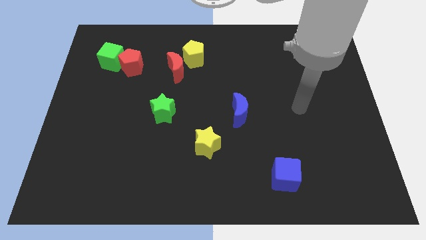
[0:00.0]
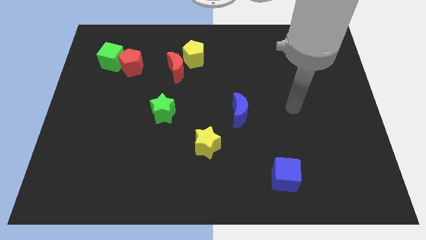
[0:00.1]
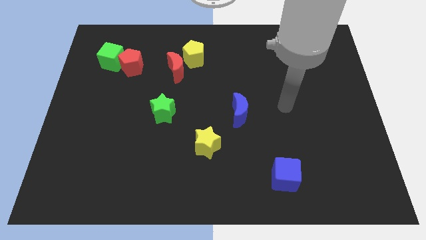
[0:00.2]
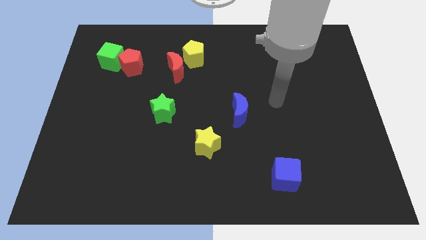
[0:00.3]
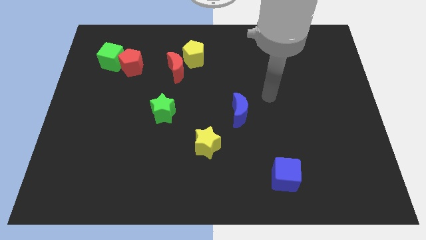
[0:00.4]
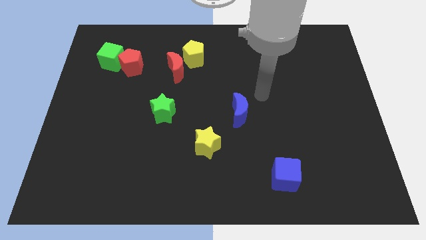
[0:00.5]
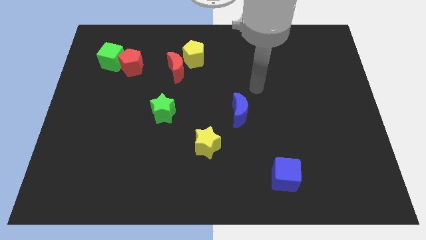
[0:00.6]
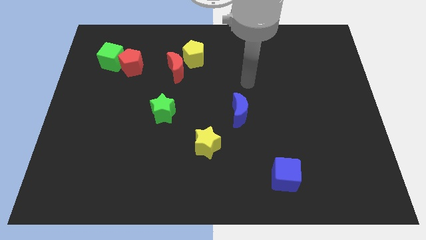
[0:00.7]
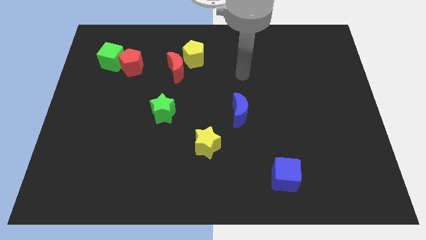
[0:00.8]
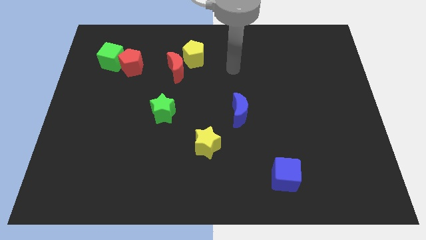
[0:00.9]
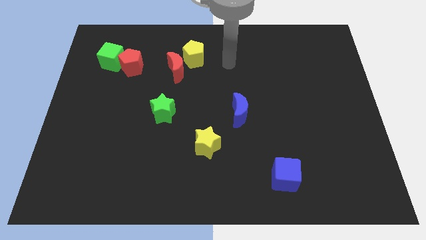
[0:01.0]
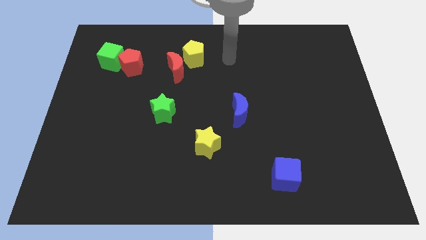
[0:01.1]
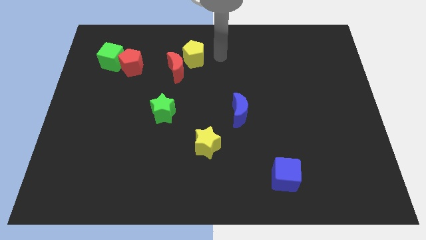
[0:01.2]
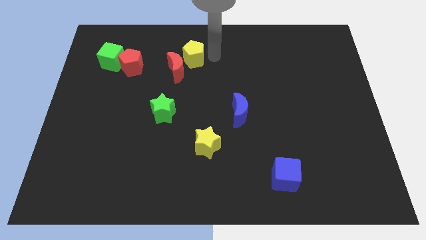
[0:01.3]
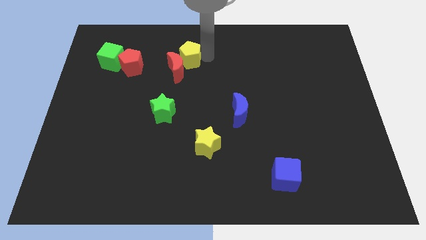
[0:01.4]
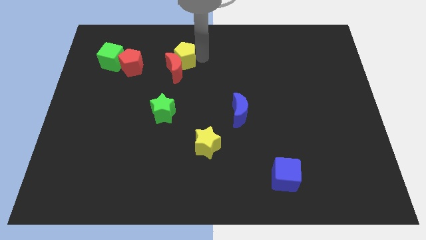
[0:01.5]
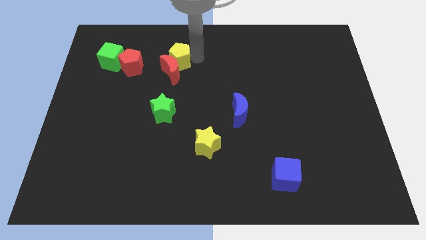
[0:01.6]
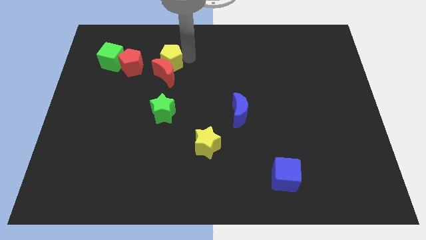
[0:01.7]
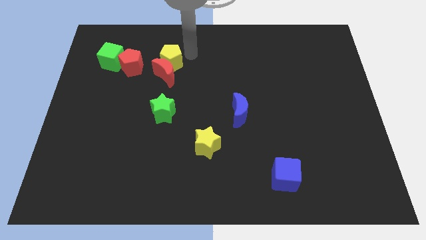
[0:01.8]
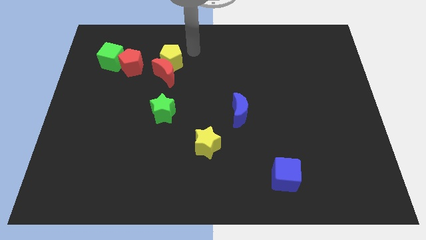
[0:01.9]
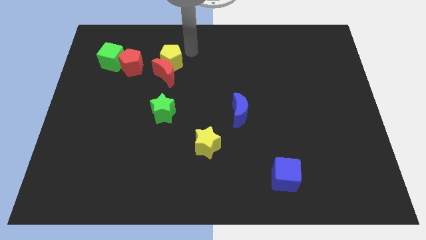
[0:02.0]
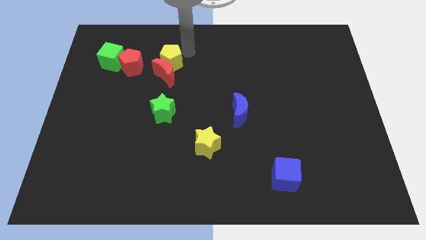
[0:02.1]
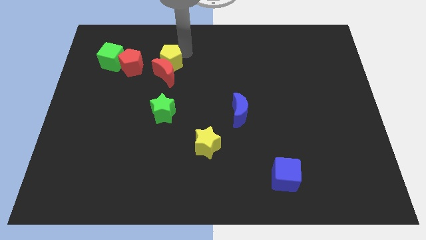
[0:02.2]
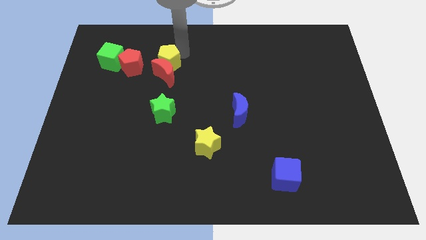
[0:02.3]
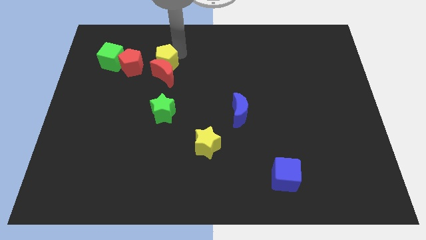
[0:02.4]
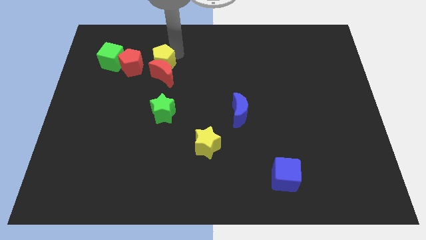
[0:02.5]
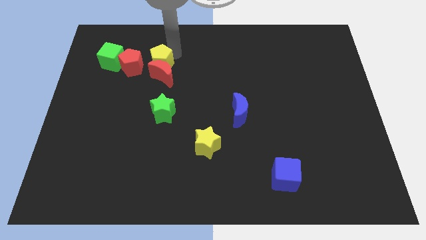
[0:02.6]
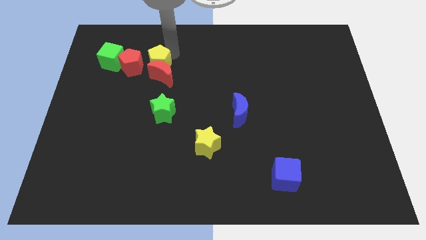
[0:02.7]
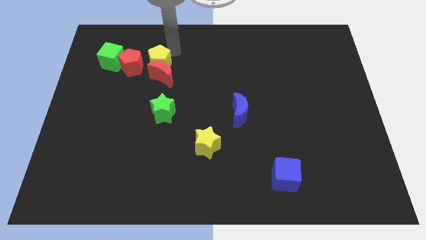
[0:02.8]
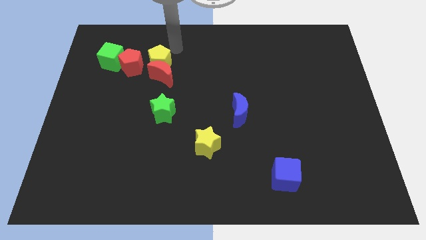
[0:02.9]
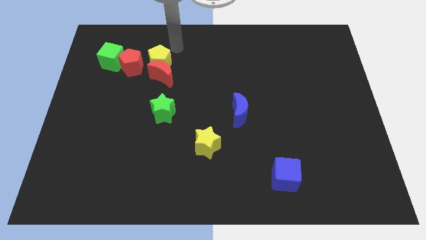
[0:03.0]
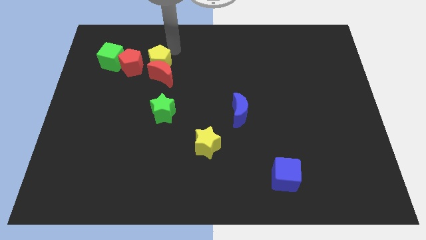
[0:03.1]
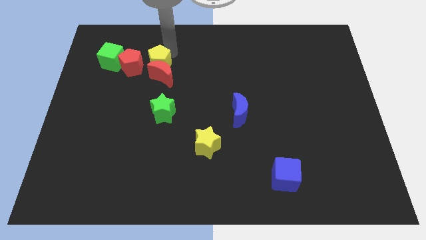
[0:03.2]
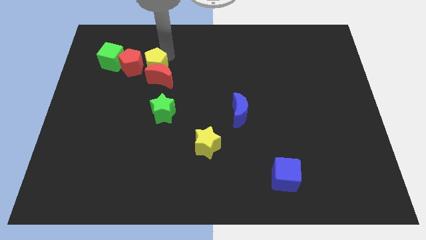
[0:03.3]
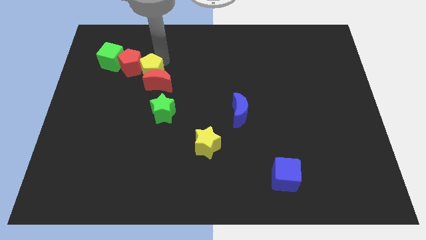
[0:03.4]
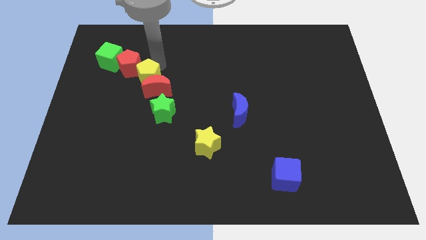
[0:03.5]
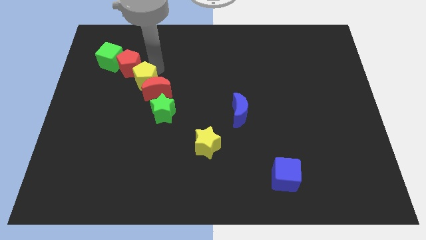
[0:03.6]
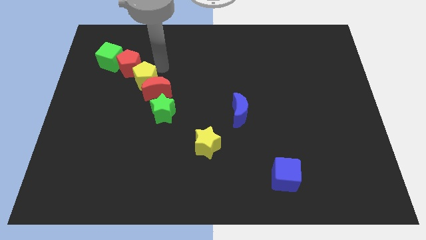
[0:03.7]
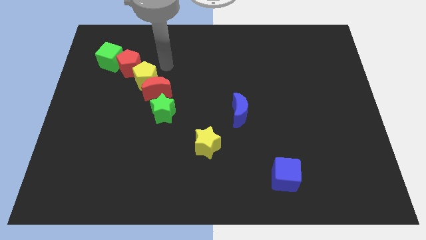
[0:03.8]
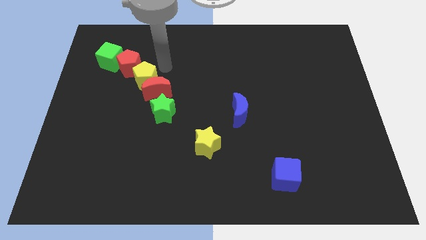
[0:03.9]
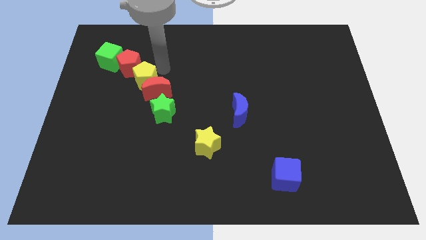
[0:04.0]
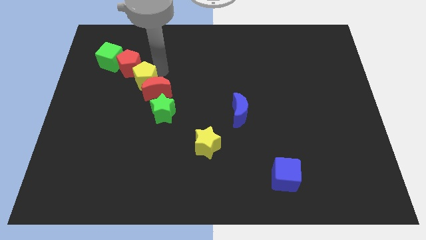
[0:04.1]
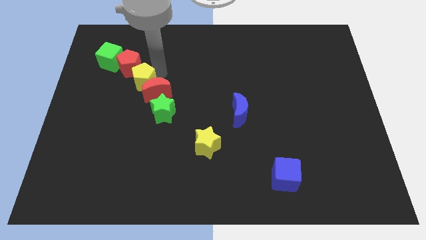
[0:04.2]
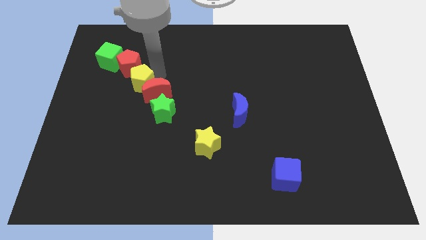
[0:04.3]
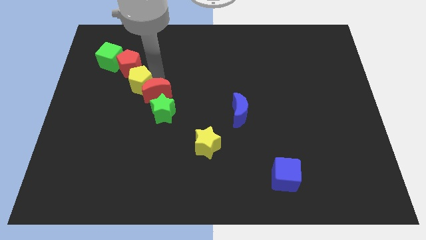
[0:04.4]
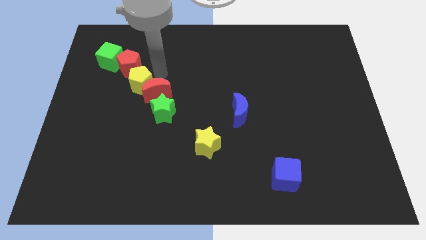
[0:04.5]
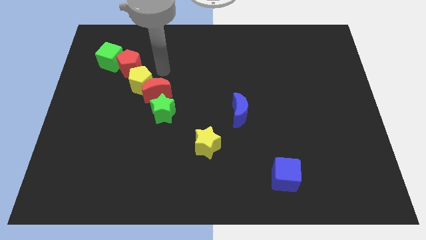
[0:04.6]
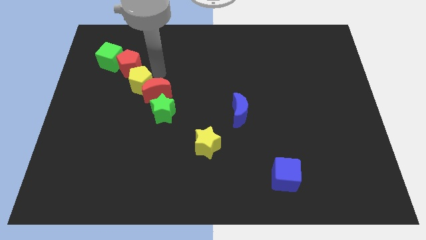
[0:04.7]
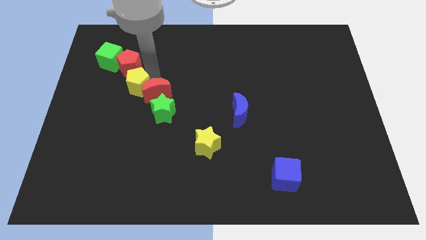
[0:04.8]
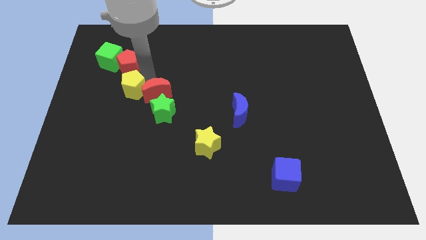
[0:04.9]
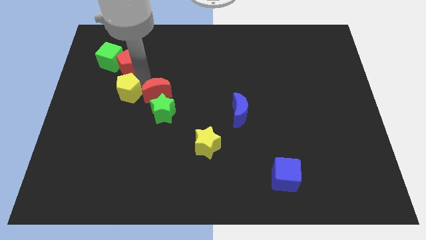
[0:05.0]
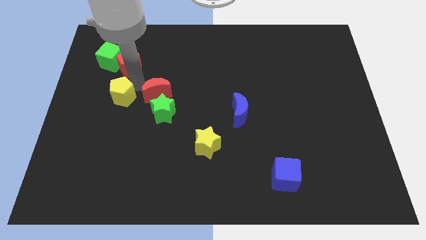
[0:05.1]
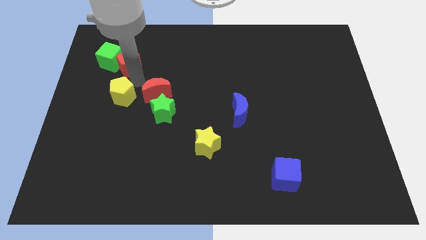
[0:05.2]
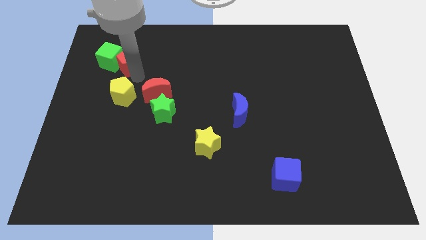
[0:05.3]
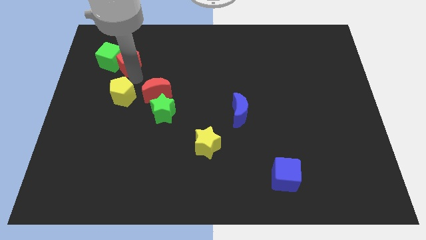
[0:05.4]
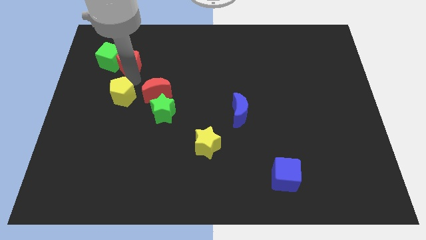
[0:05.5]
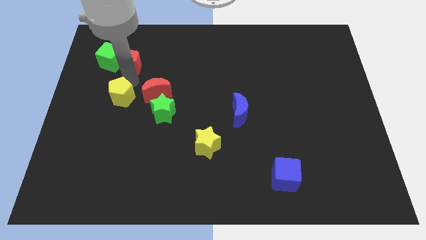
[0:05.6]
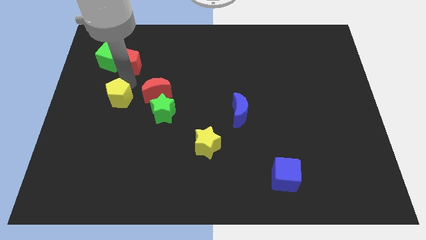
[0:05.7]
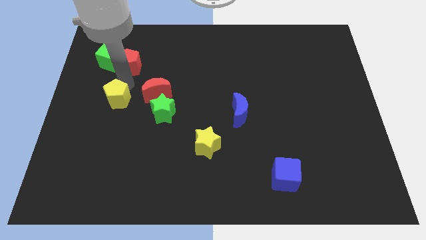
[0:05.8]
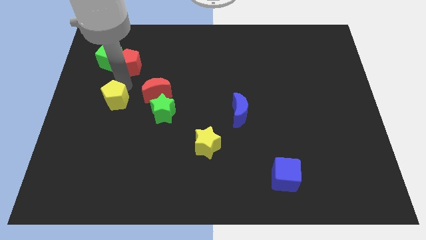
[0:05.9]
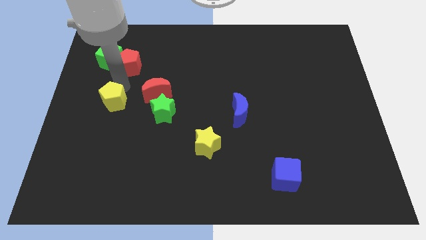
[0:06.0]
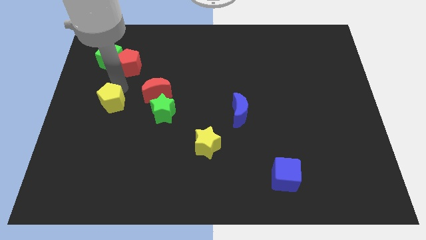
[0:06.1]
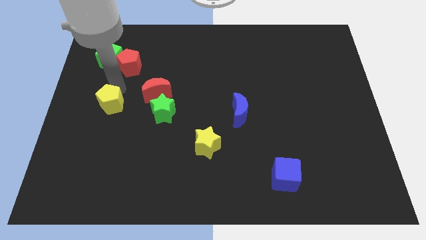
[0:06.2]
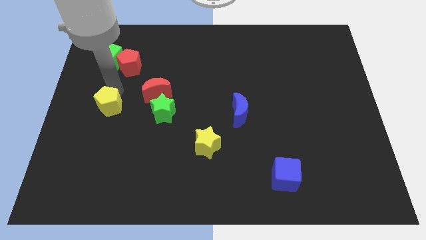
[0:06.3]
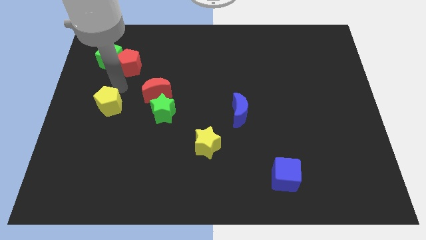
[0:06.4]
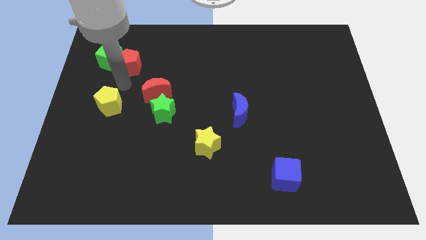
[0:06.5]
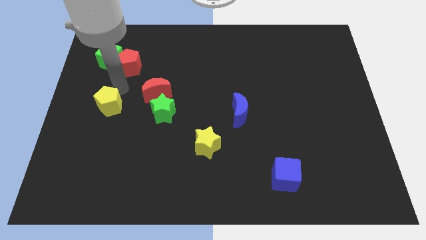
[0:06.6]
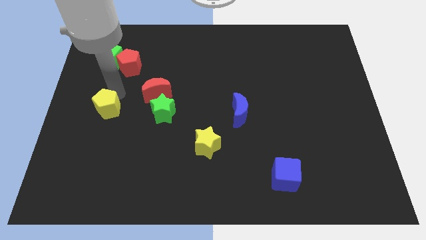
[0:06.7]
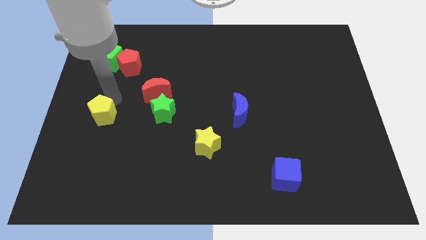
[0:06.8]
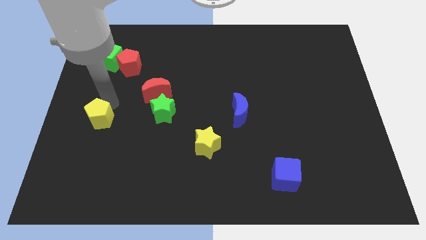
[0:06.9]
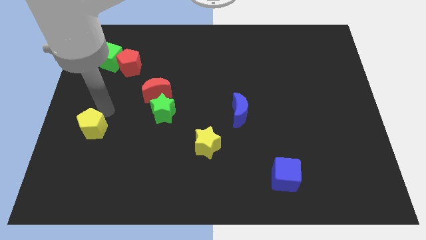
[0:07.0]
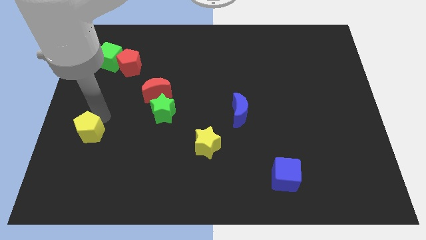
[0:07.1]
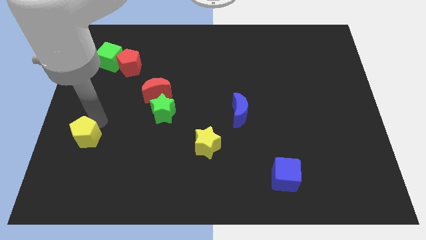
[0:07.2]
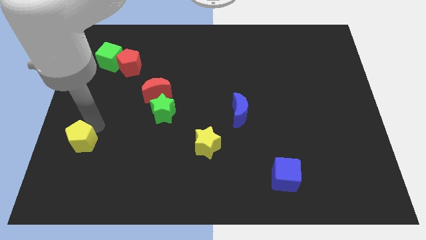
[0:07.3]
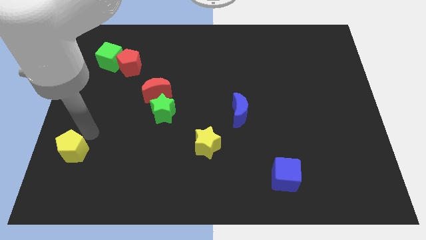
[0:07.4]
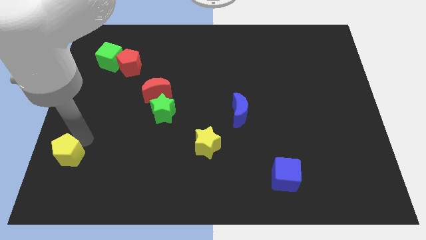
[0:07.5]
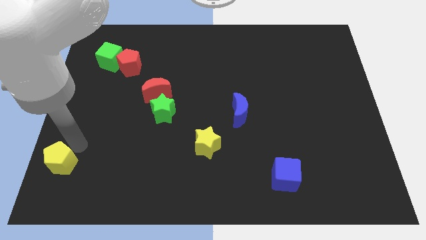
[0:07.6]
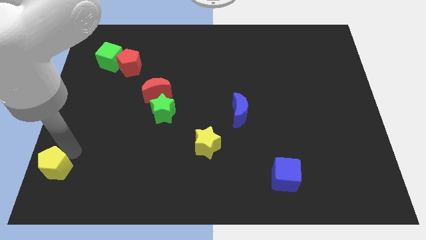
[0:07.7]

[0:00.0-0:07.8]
push the yellow pentagon to the bottom left corner
